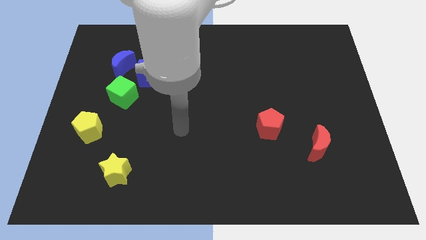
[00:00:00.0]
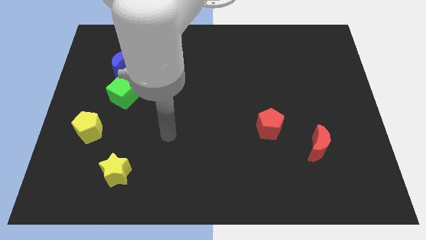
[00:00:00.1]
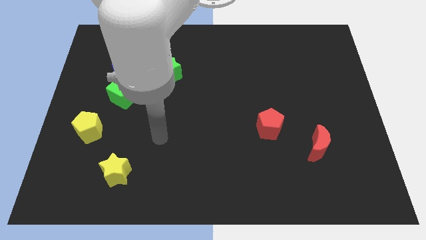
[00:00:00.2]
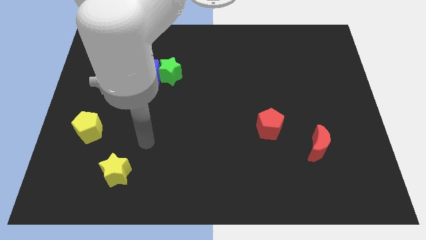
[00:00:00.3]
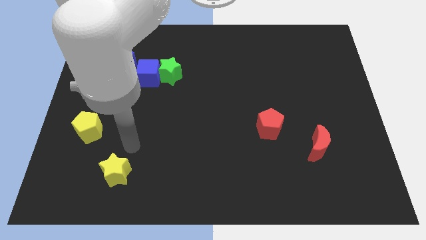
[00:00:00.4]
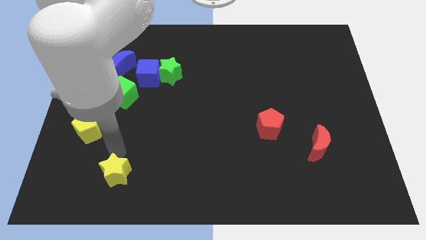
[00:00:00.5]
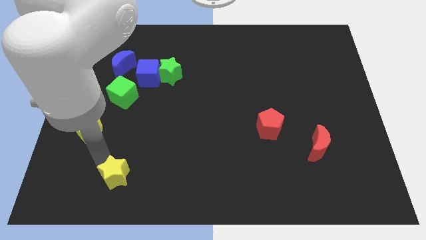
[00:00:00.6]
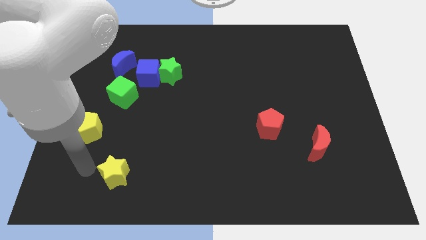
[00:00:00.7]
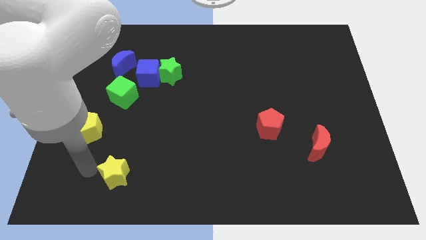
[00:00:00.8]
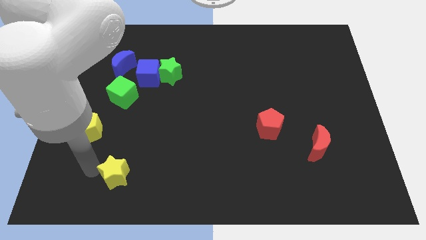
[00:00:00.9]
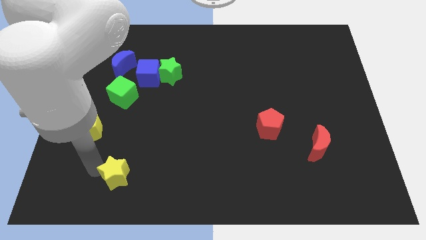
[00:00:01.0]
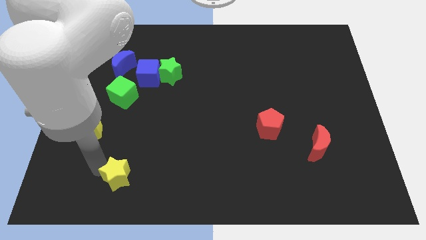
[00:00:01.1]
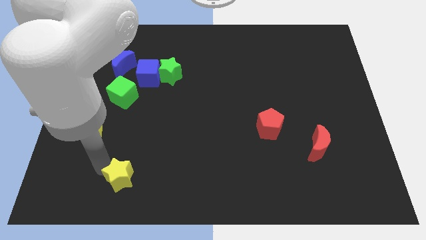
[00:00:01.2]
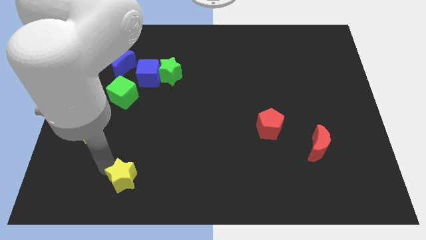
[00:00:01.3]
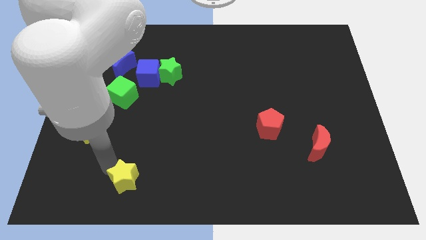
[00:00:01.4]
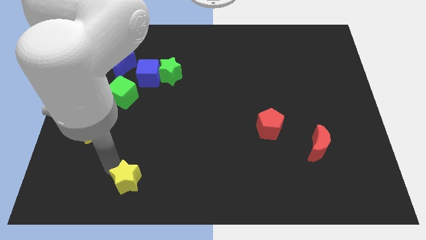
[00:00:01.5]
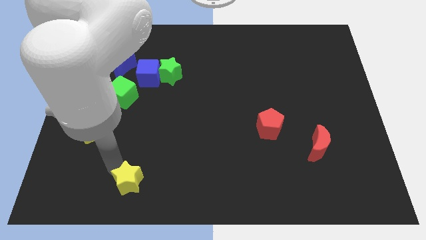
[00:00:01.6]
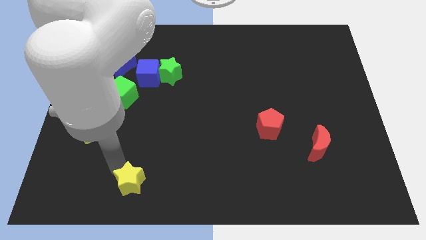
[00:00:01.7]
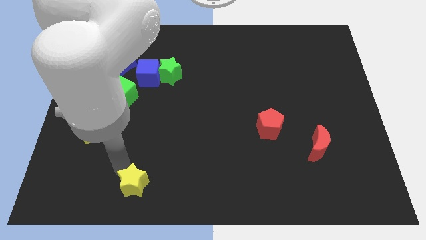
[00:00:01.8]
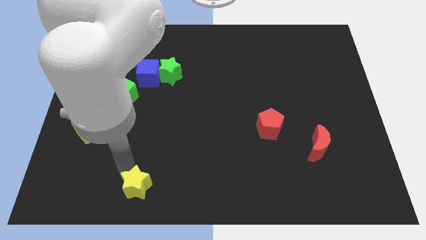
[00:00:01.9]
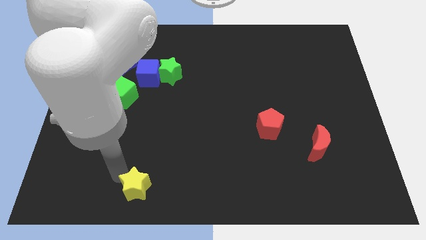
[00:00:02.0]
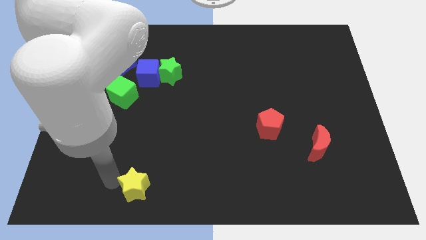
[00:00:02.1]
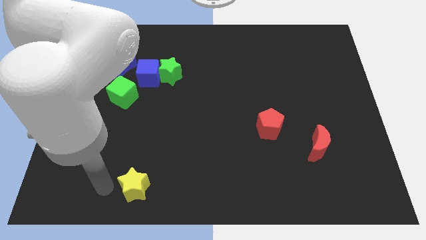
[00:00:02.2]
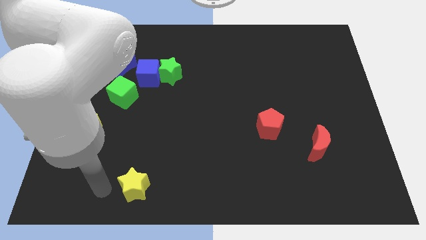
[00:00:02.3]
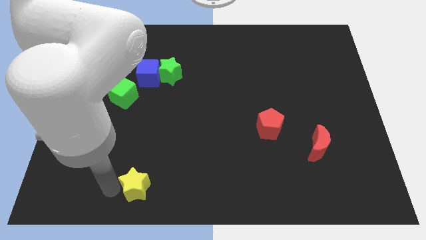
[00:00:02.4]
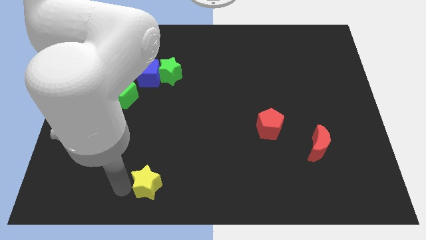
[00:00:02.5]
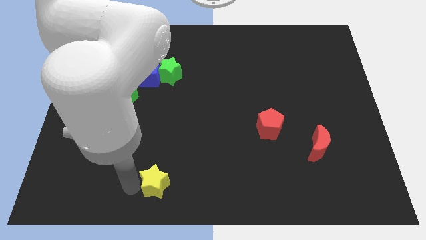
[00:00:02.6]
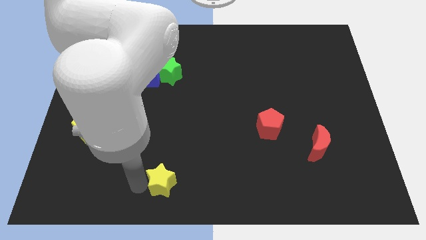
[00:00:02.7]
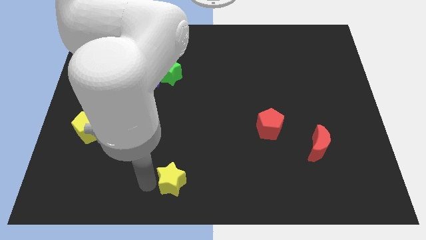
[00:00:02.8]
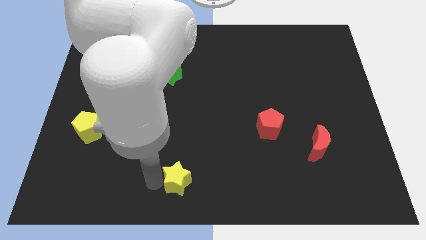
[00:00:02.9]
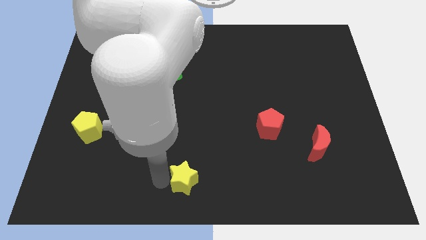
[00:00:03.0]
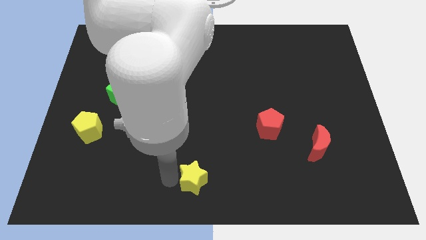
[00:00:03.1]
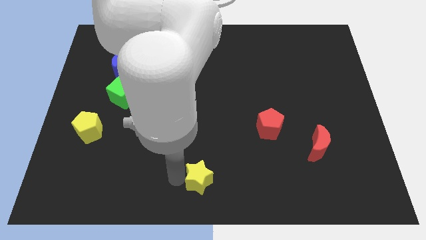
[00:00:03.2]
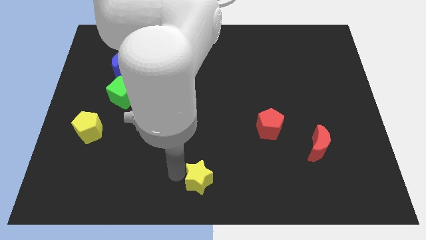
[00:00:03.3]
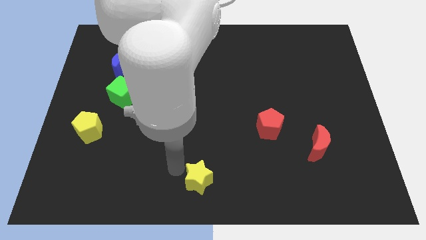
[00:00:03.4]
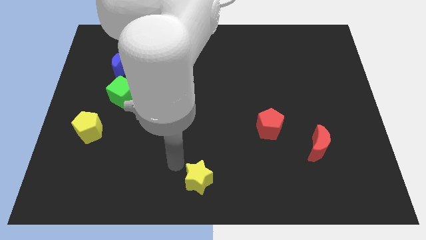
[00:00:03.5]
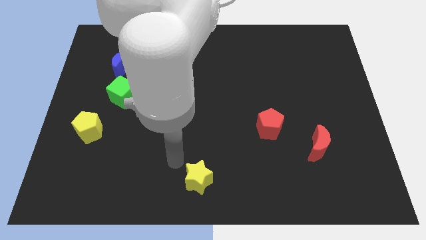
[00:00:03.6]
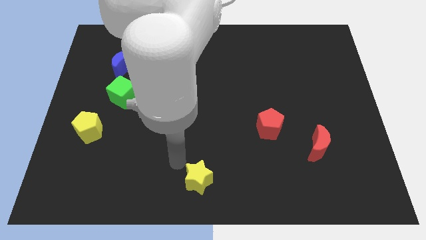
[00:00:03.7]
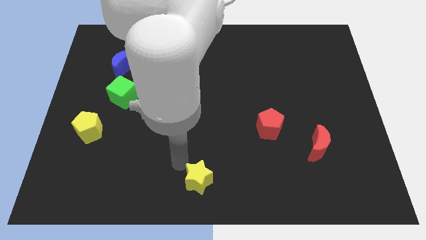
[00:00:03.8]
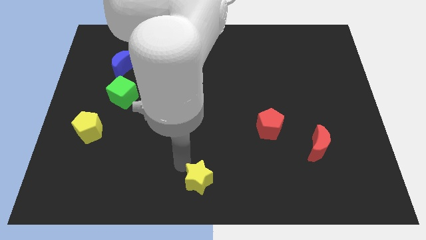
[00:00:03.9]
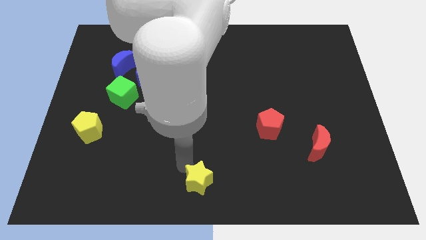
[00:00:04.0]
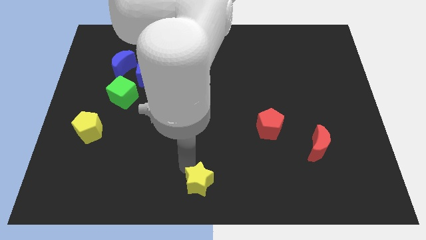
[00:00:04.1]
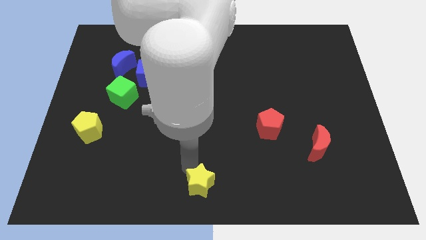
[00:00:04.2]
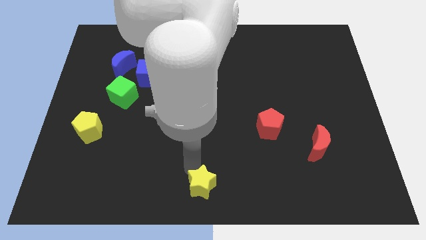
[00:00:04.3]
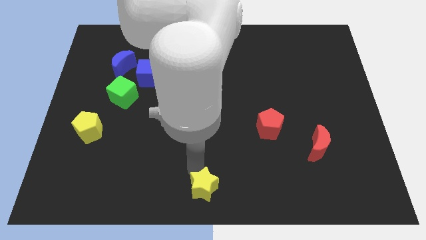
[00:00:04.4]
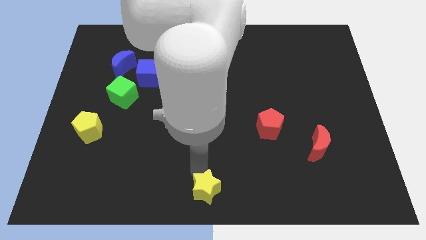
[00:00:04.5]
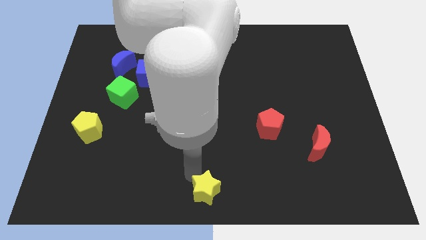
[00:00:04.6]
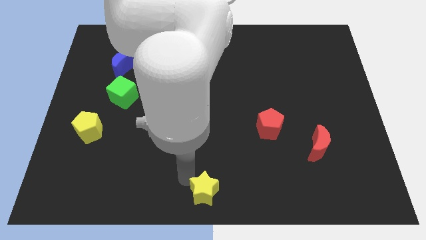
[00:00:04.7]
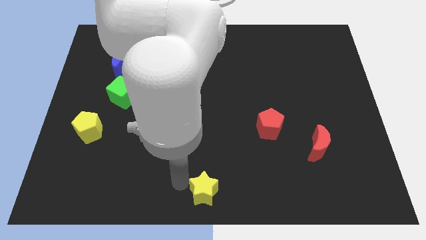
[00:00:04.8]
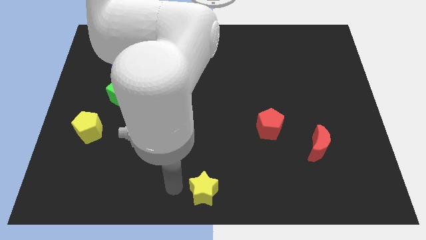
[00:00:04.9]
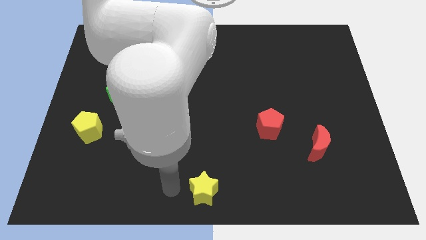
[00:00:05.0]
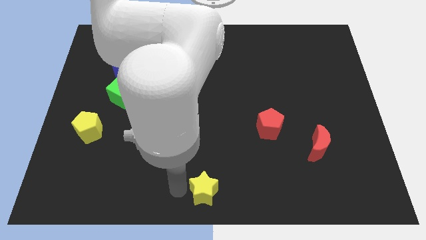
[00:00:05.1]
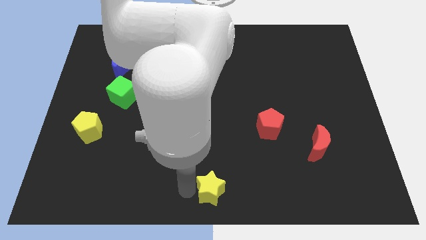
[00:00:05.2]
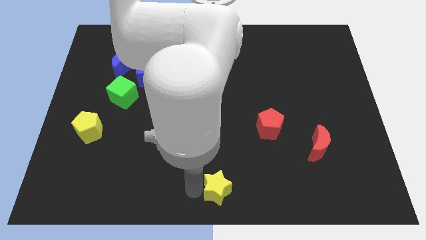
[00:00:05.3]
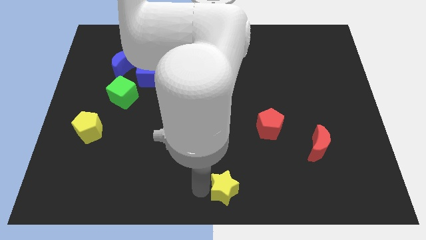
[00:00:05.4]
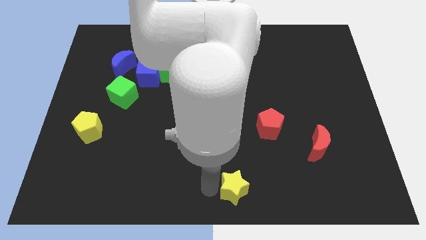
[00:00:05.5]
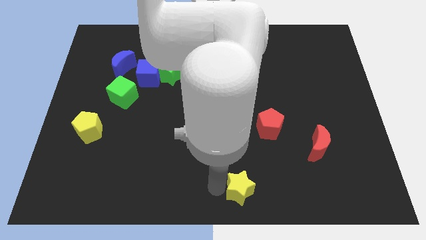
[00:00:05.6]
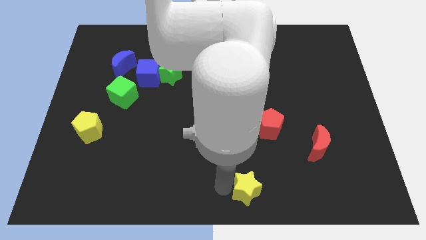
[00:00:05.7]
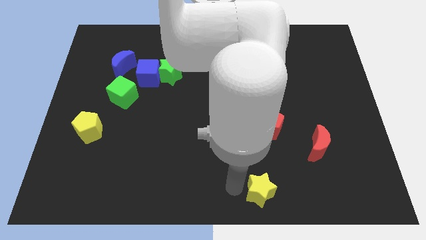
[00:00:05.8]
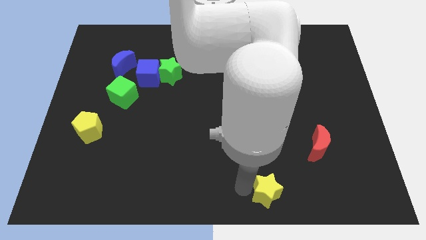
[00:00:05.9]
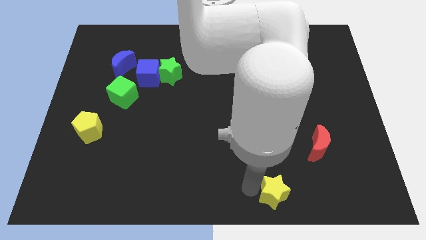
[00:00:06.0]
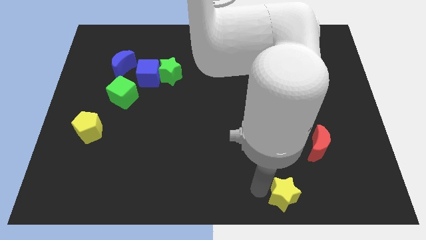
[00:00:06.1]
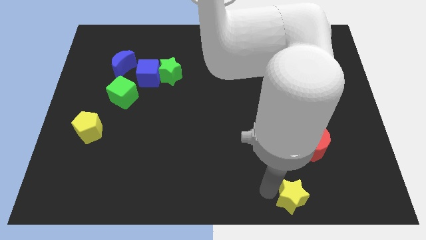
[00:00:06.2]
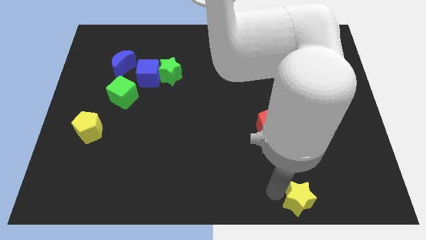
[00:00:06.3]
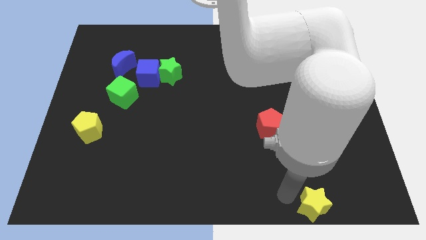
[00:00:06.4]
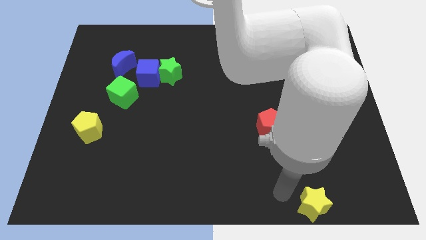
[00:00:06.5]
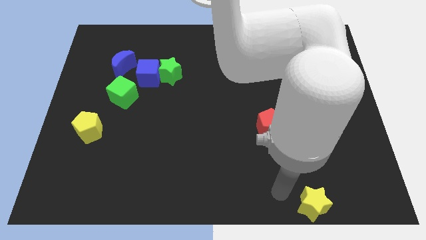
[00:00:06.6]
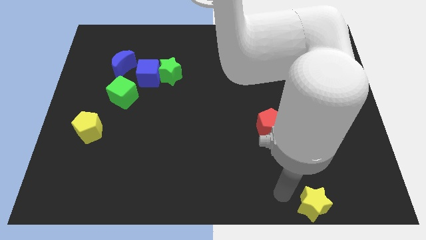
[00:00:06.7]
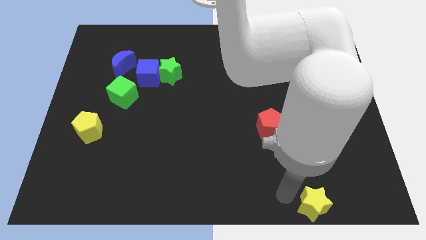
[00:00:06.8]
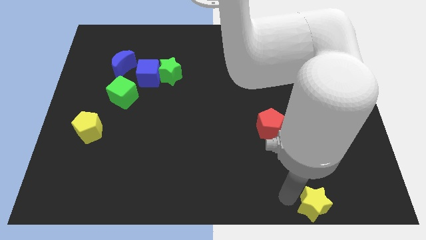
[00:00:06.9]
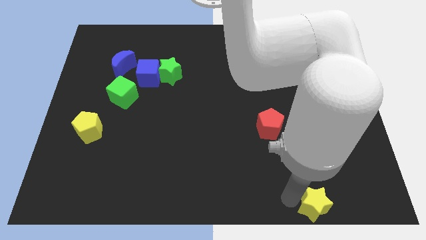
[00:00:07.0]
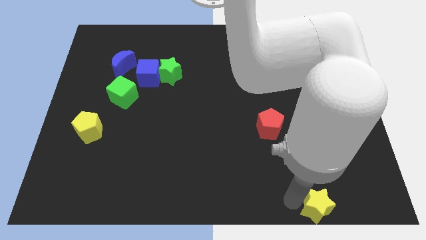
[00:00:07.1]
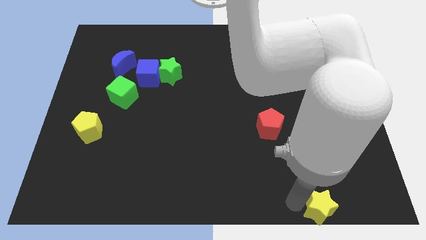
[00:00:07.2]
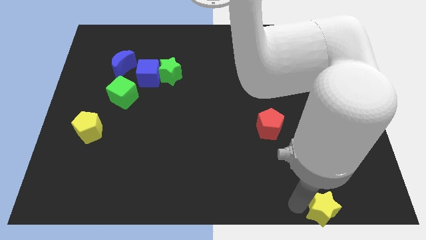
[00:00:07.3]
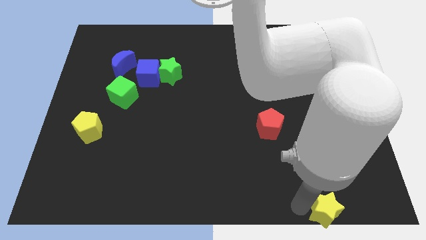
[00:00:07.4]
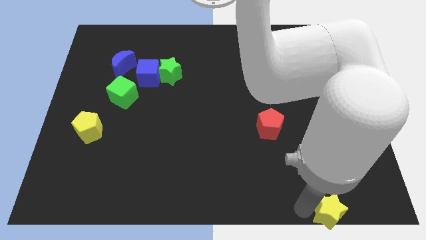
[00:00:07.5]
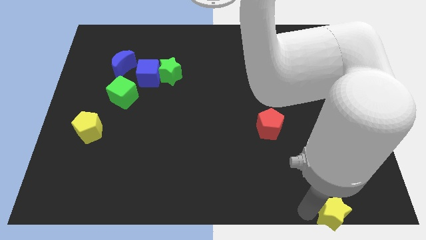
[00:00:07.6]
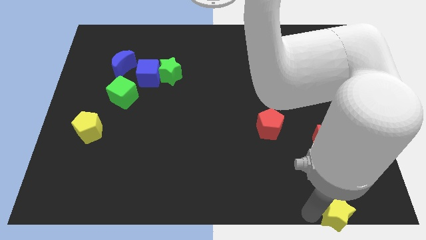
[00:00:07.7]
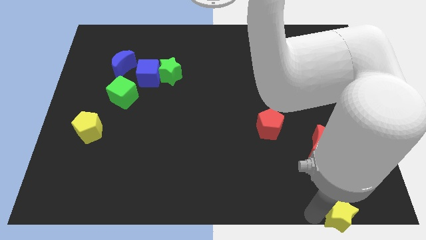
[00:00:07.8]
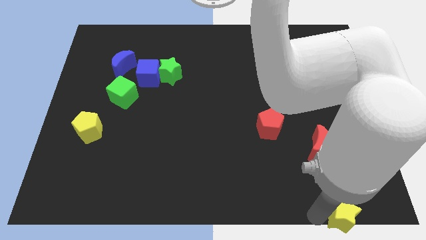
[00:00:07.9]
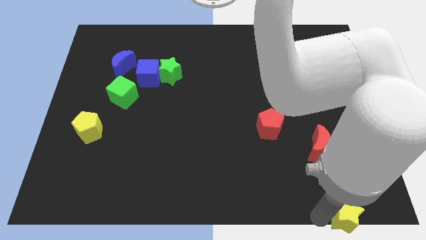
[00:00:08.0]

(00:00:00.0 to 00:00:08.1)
push the yellow star to the bottom right of the board
